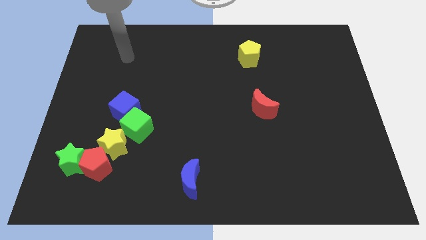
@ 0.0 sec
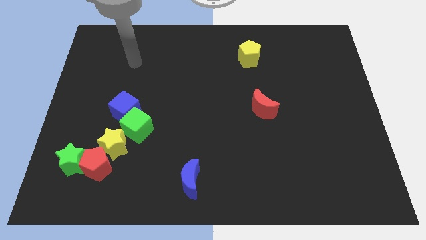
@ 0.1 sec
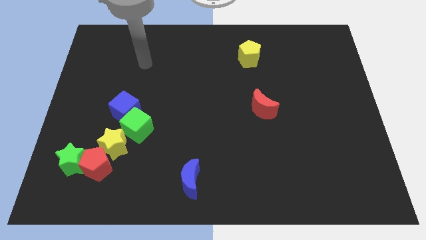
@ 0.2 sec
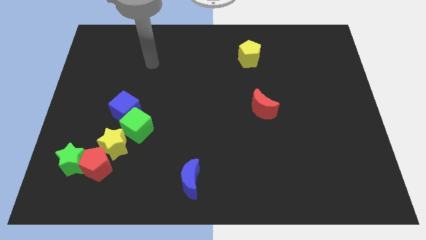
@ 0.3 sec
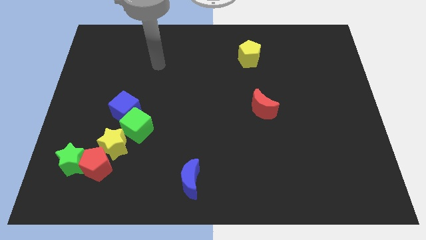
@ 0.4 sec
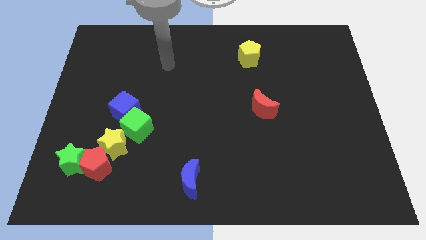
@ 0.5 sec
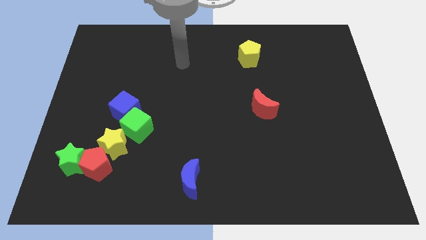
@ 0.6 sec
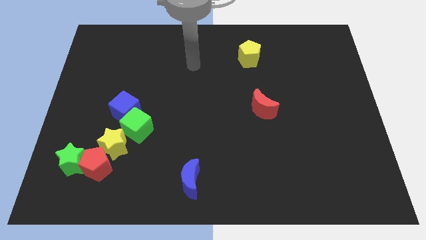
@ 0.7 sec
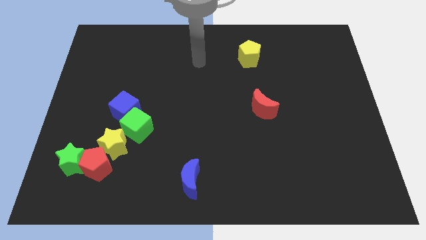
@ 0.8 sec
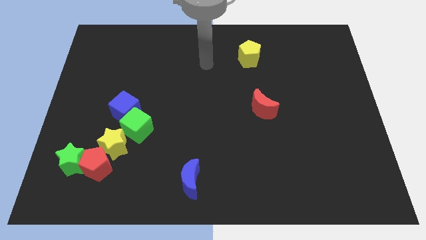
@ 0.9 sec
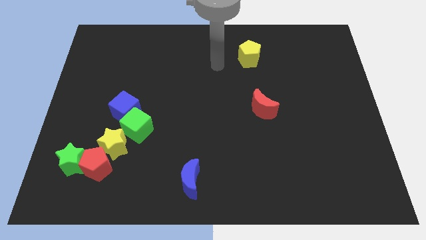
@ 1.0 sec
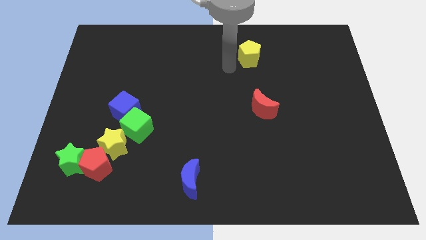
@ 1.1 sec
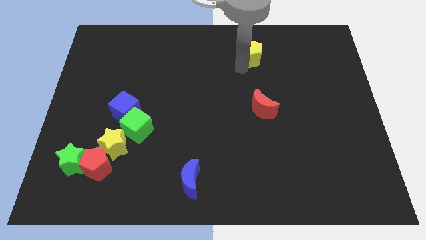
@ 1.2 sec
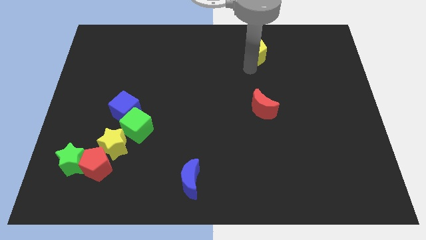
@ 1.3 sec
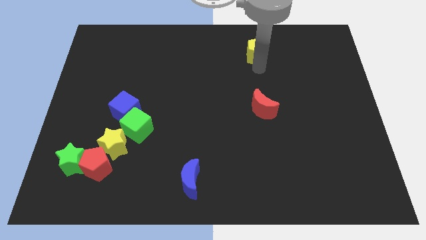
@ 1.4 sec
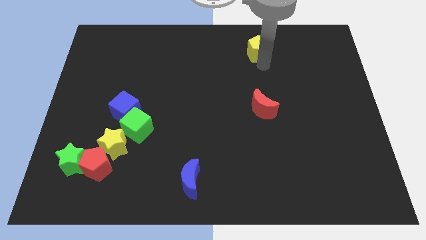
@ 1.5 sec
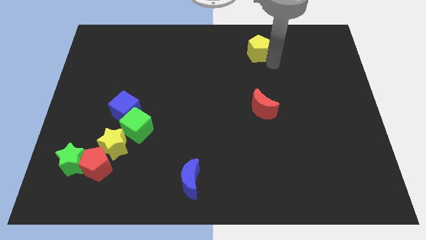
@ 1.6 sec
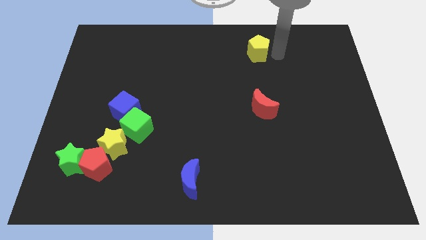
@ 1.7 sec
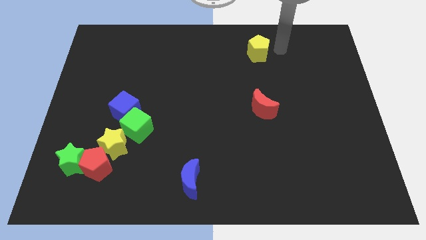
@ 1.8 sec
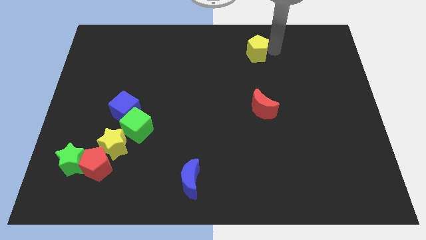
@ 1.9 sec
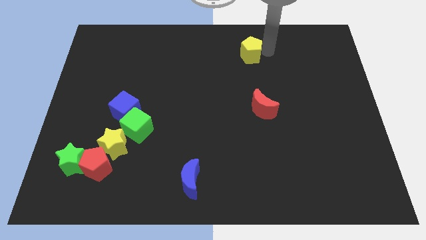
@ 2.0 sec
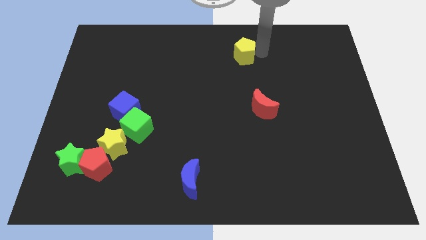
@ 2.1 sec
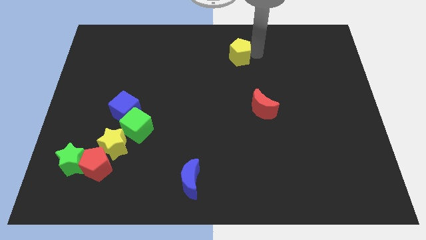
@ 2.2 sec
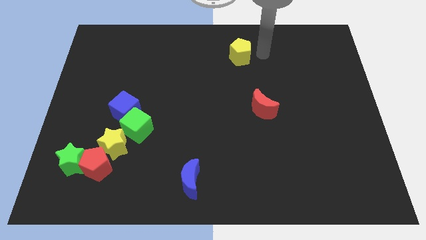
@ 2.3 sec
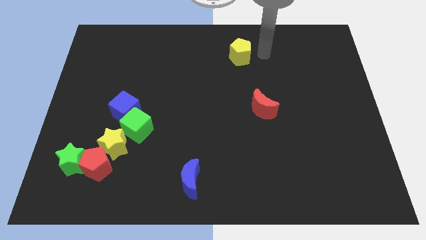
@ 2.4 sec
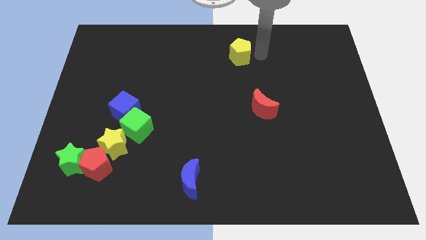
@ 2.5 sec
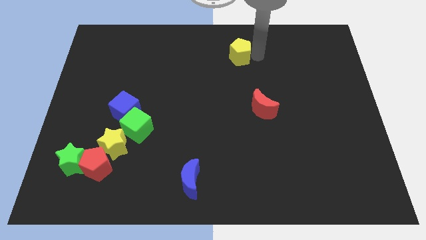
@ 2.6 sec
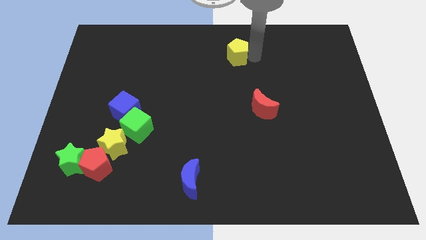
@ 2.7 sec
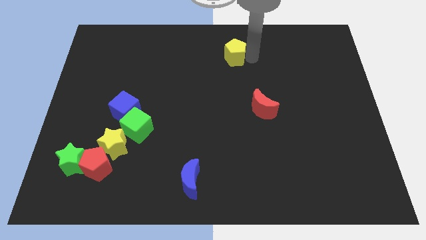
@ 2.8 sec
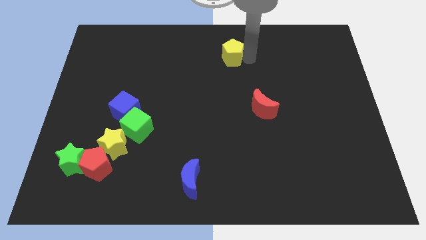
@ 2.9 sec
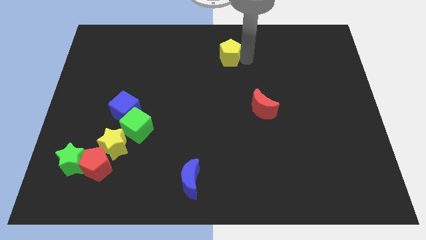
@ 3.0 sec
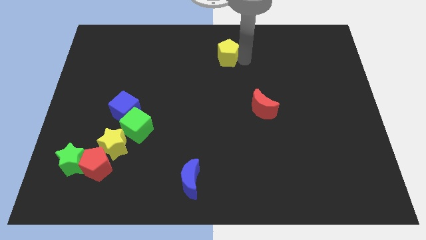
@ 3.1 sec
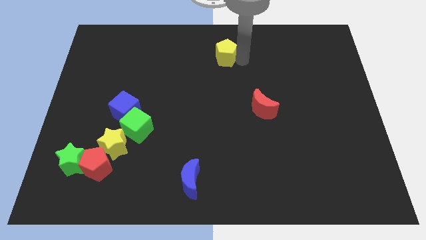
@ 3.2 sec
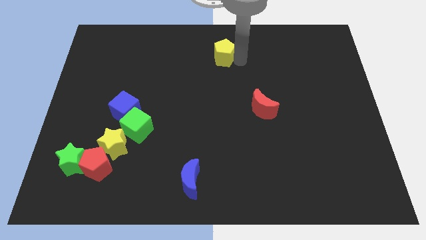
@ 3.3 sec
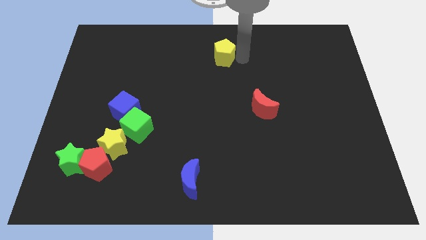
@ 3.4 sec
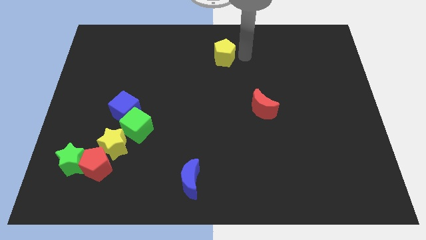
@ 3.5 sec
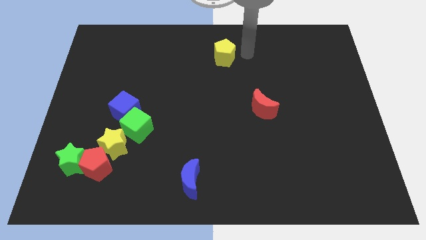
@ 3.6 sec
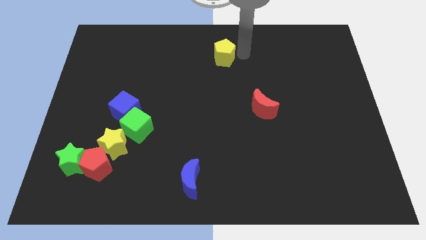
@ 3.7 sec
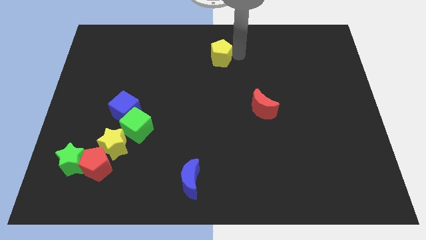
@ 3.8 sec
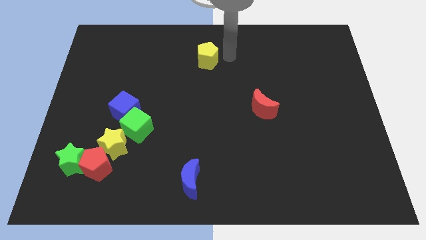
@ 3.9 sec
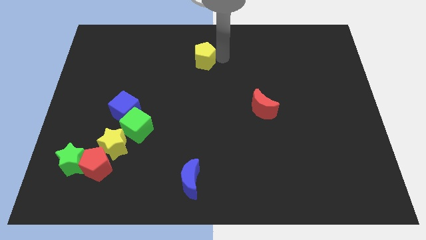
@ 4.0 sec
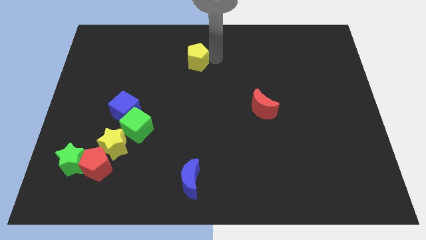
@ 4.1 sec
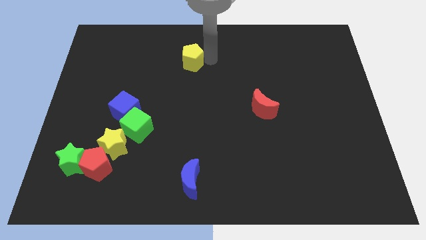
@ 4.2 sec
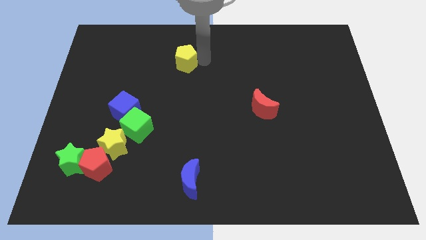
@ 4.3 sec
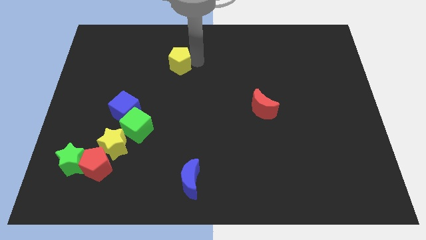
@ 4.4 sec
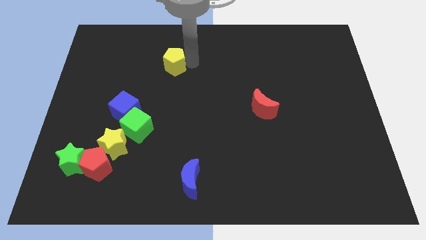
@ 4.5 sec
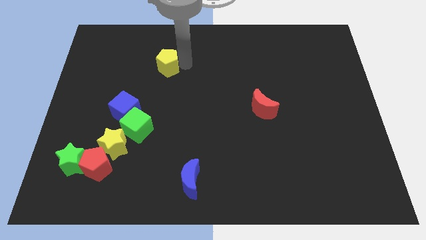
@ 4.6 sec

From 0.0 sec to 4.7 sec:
push the yellow pentagon left

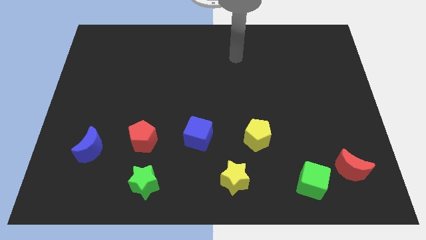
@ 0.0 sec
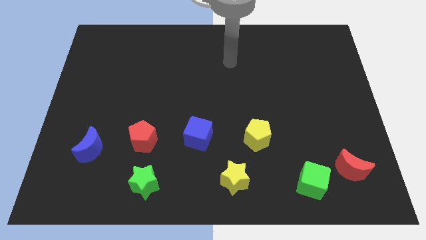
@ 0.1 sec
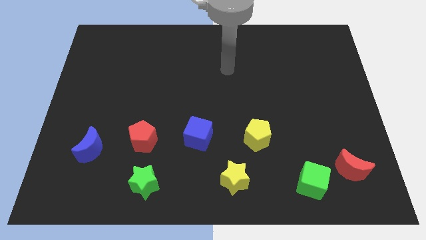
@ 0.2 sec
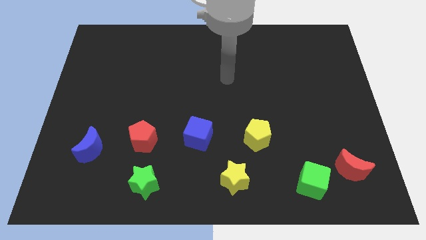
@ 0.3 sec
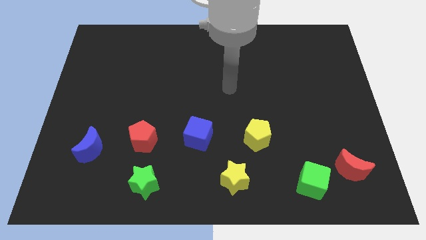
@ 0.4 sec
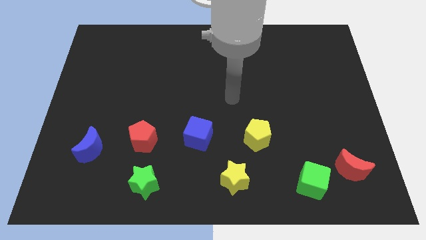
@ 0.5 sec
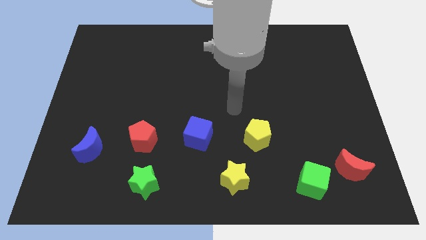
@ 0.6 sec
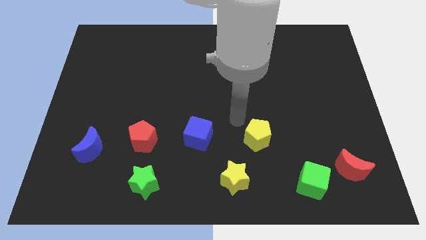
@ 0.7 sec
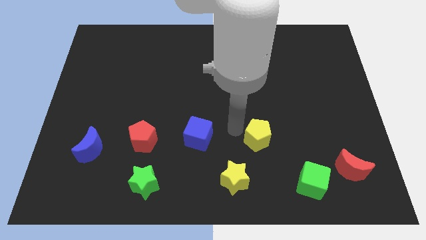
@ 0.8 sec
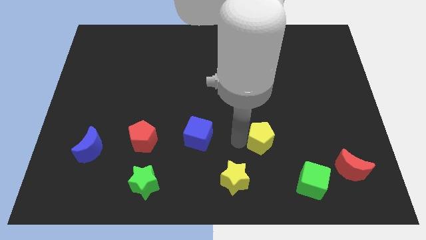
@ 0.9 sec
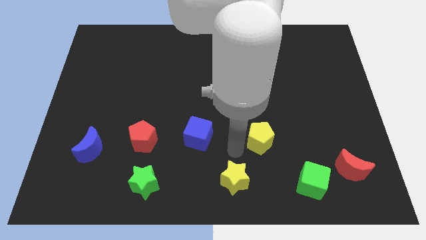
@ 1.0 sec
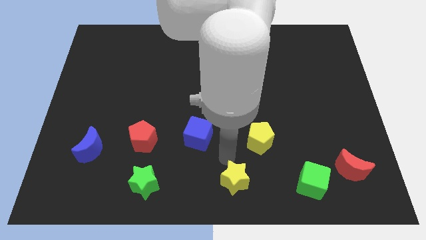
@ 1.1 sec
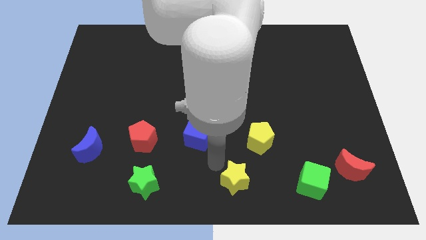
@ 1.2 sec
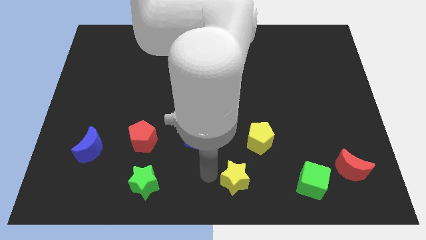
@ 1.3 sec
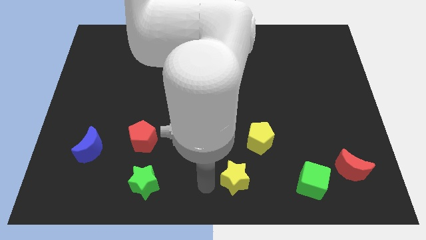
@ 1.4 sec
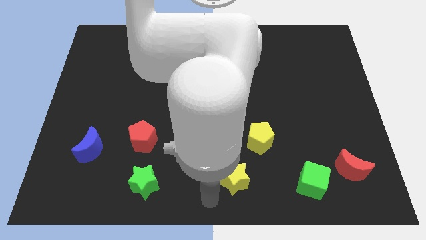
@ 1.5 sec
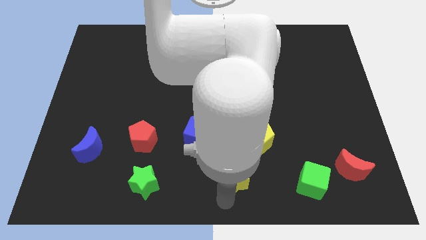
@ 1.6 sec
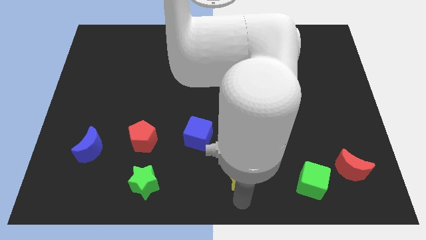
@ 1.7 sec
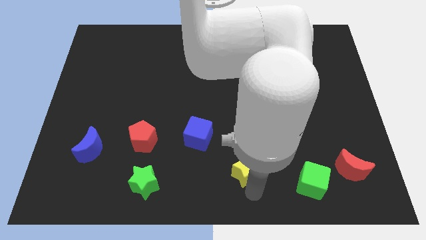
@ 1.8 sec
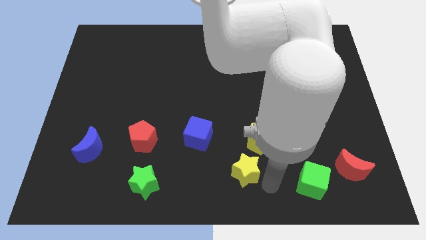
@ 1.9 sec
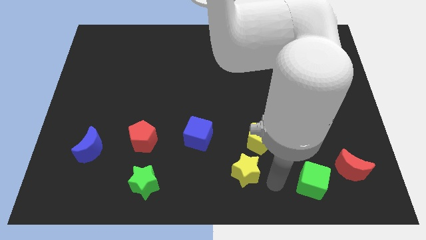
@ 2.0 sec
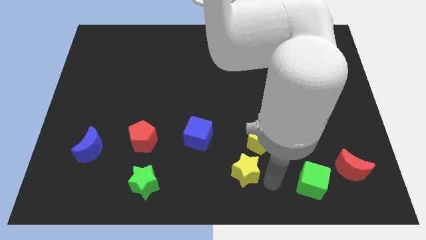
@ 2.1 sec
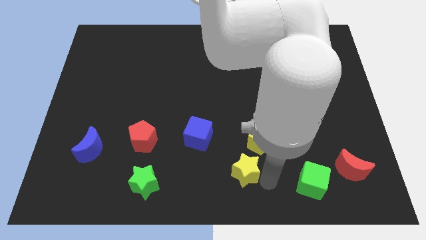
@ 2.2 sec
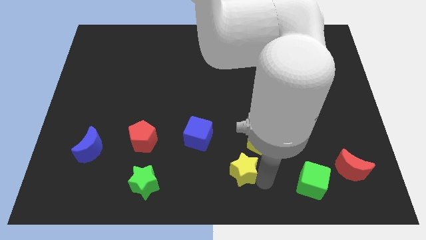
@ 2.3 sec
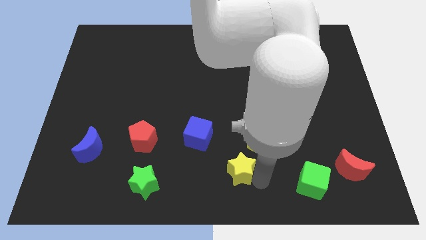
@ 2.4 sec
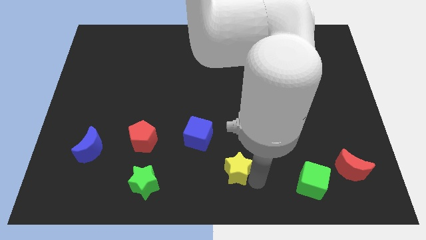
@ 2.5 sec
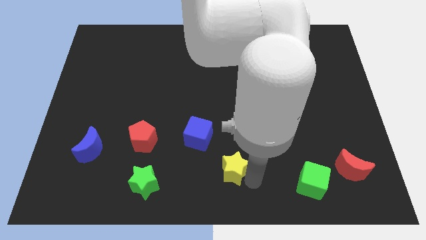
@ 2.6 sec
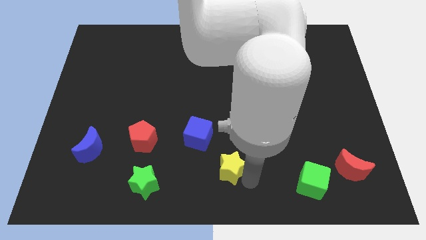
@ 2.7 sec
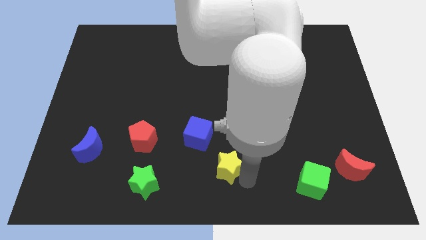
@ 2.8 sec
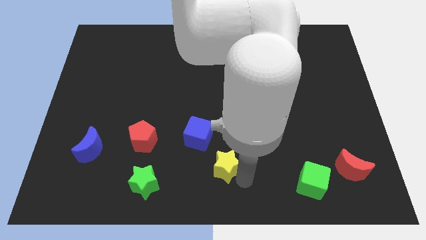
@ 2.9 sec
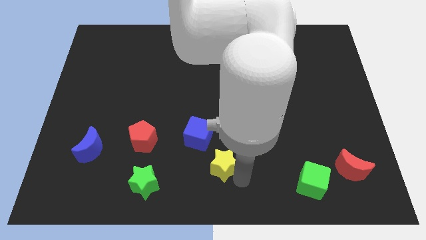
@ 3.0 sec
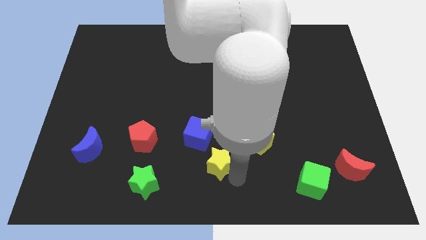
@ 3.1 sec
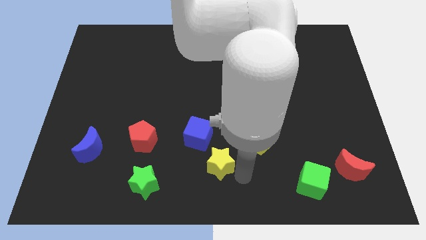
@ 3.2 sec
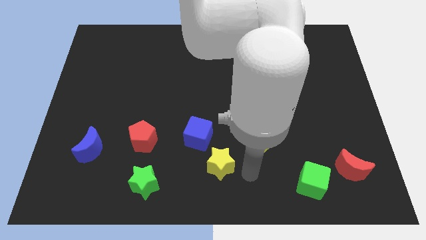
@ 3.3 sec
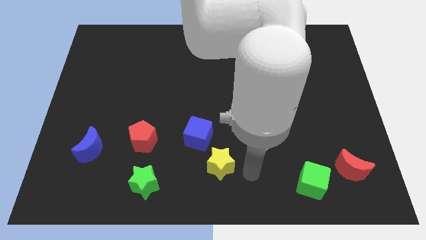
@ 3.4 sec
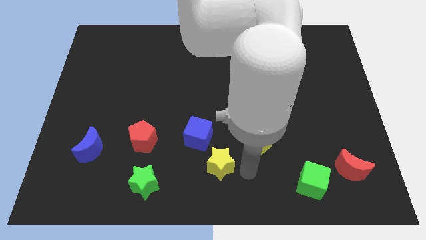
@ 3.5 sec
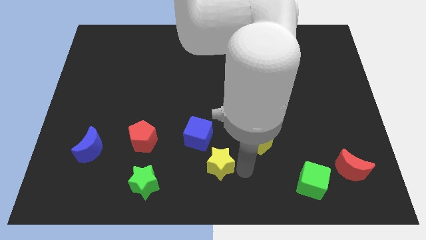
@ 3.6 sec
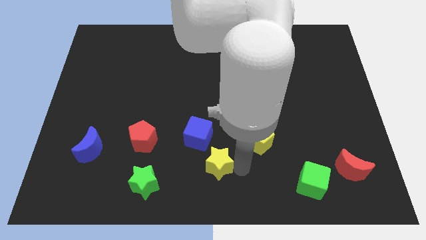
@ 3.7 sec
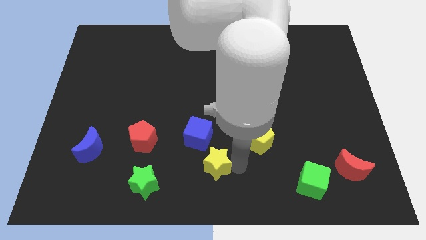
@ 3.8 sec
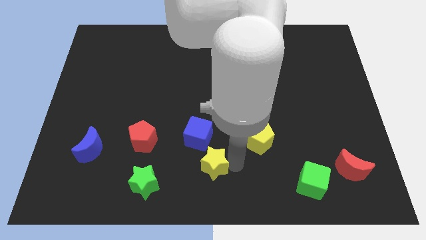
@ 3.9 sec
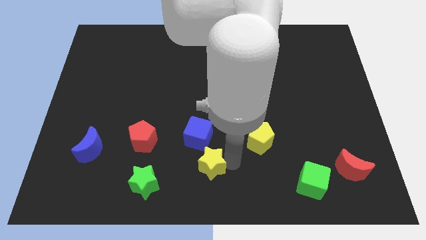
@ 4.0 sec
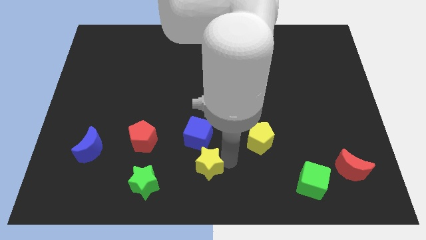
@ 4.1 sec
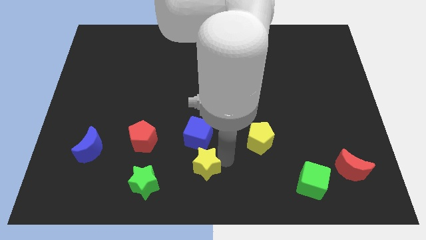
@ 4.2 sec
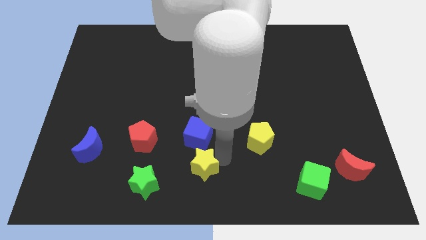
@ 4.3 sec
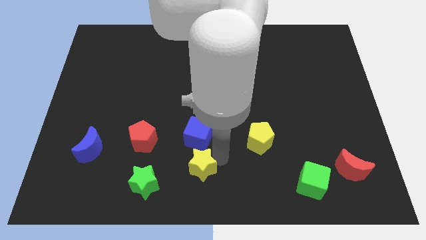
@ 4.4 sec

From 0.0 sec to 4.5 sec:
slightly push the yellow star up and then to the left
